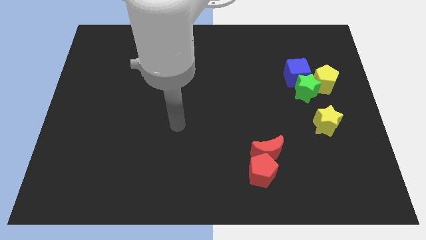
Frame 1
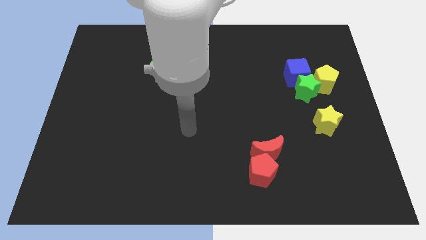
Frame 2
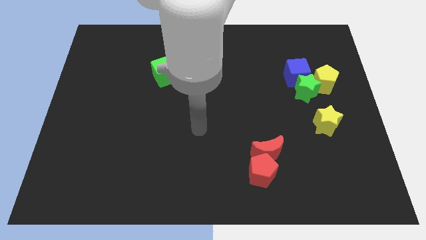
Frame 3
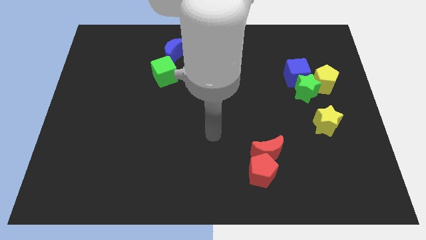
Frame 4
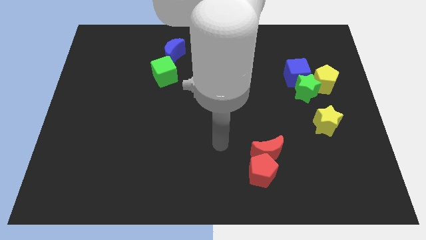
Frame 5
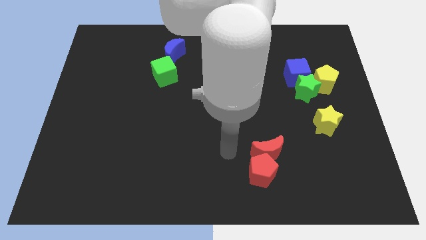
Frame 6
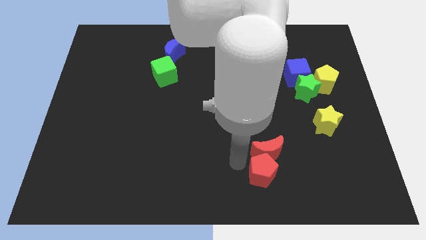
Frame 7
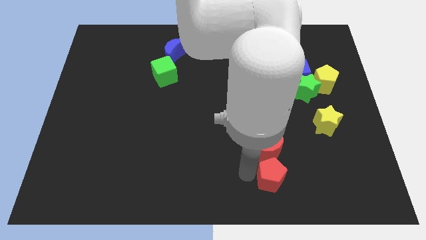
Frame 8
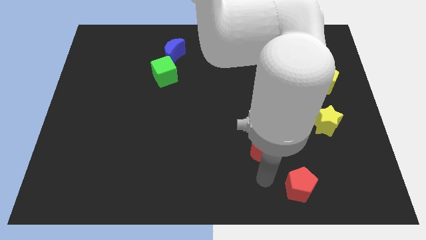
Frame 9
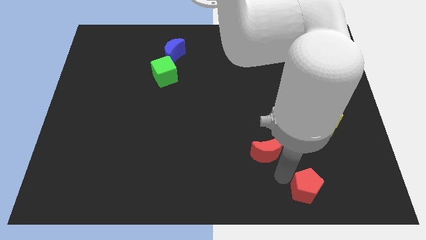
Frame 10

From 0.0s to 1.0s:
separate the red moon from the red pentagon

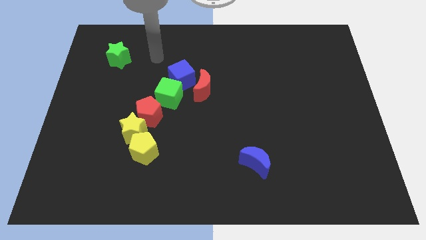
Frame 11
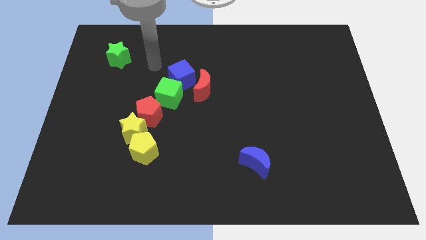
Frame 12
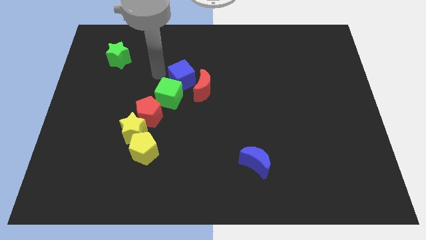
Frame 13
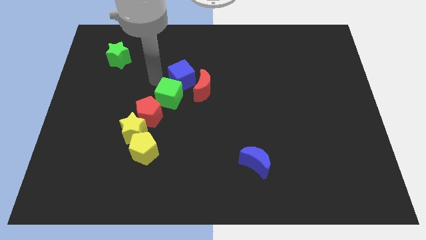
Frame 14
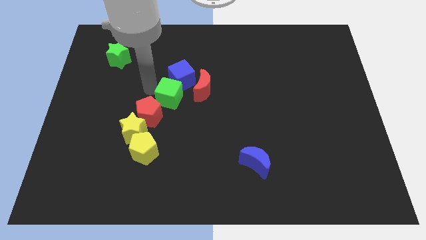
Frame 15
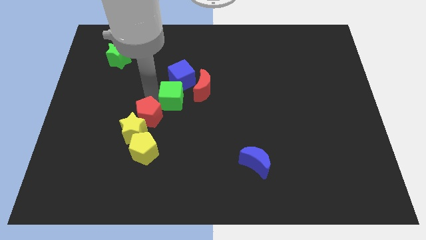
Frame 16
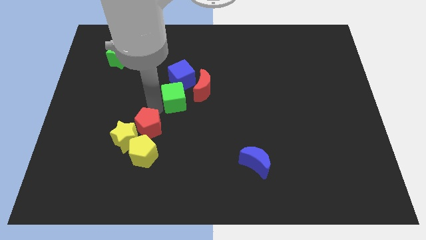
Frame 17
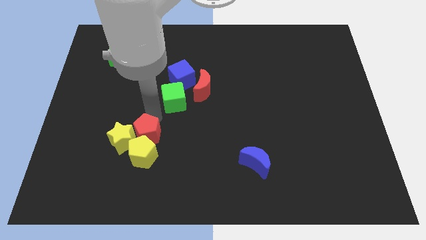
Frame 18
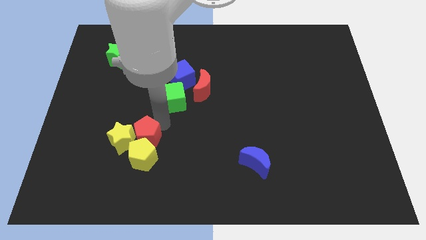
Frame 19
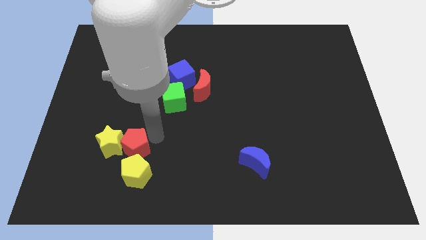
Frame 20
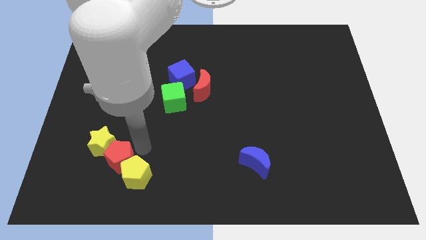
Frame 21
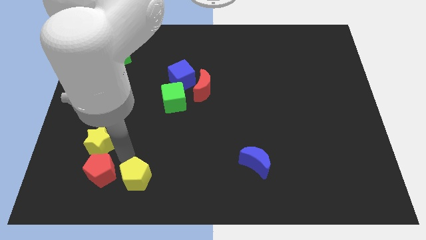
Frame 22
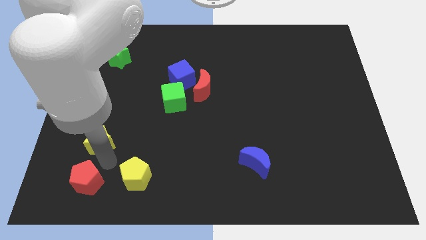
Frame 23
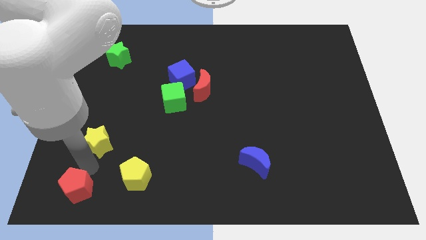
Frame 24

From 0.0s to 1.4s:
separate the yellow star from the red pentagon and yellow pentagon

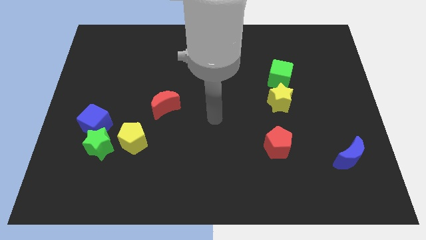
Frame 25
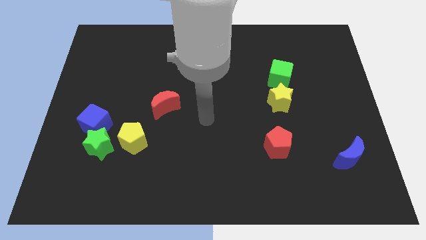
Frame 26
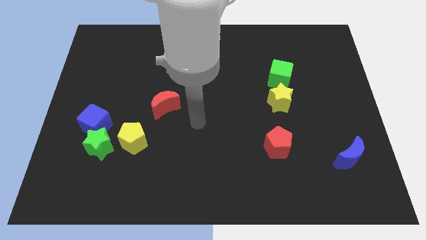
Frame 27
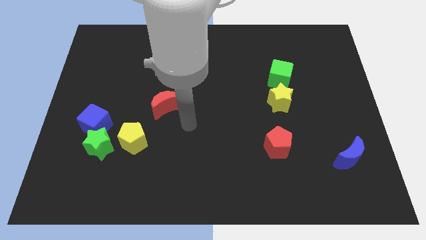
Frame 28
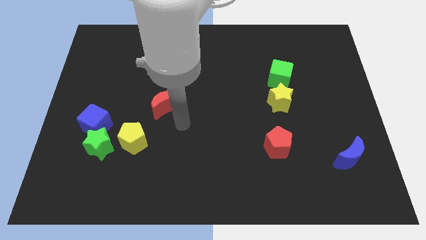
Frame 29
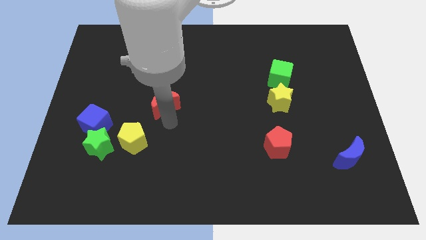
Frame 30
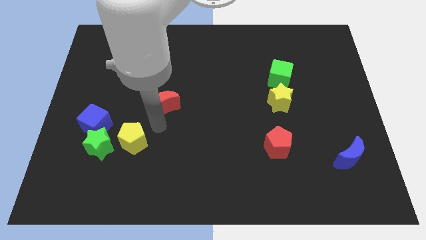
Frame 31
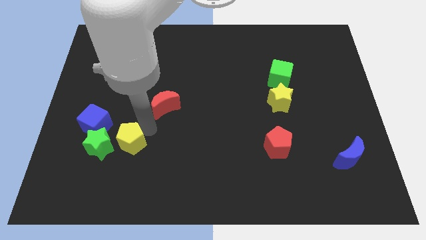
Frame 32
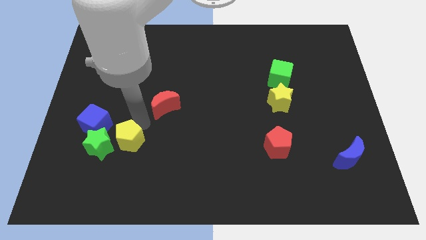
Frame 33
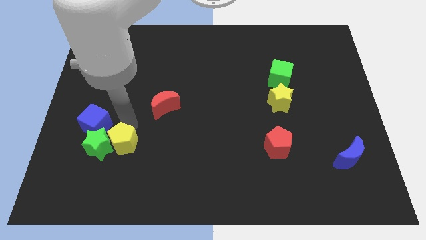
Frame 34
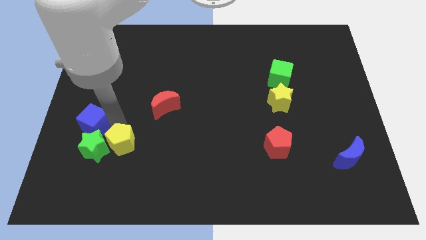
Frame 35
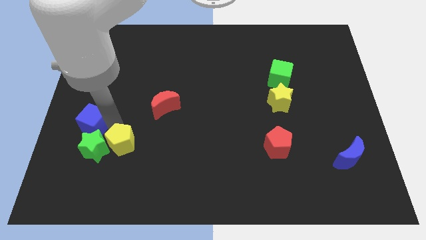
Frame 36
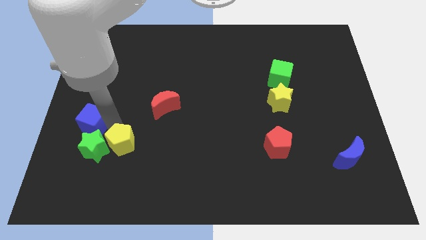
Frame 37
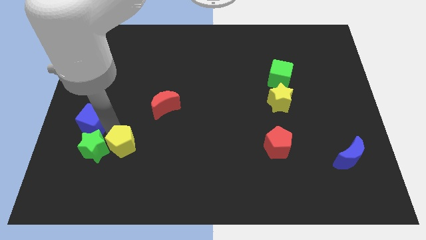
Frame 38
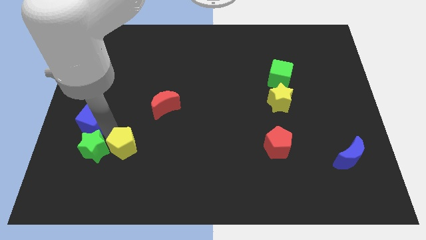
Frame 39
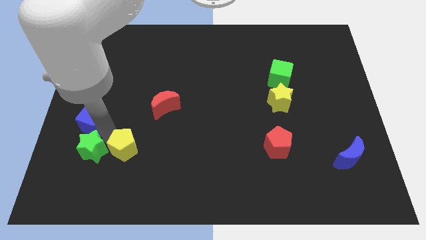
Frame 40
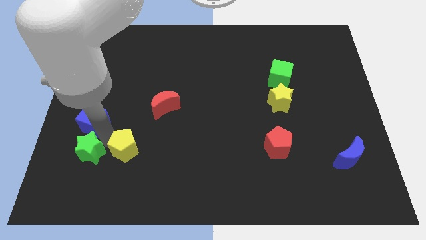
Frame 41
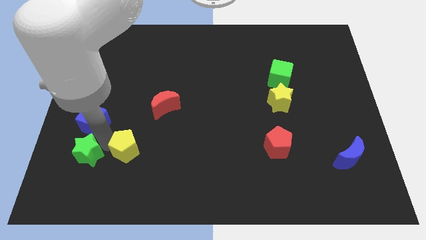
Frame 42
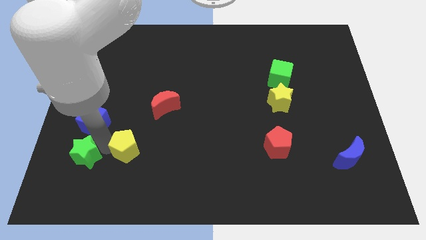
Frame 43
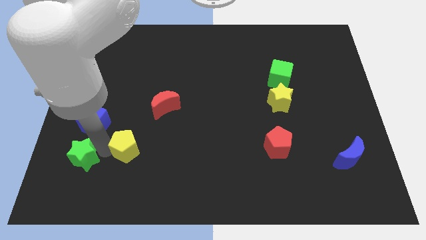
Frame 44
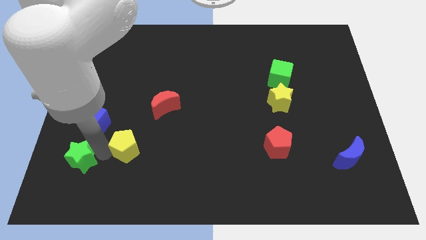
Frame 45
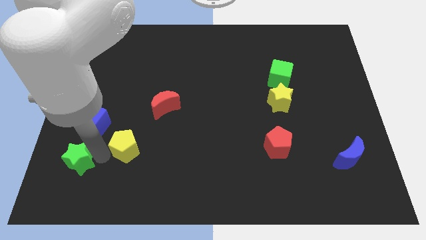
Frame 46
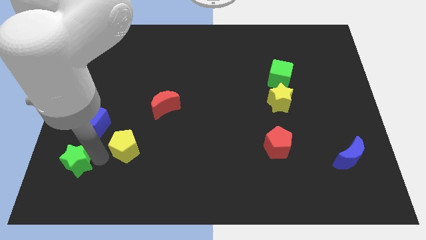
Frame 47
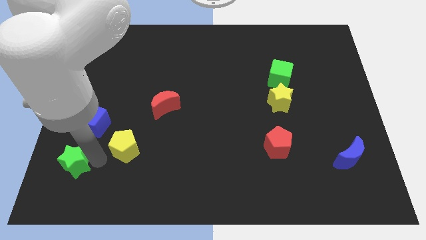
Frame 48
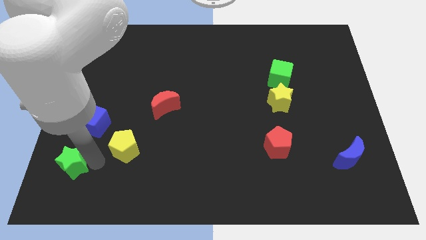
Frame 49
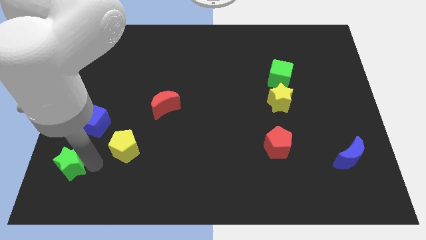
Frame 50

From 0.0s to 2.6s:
pull the green star apart from the blue cube and yellow pentagon

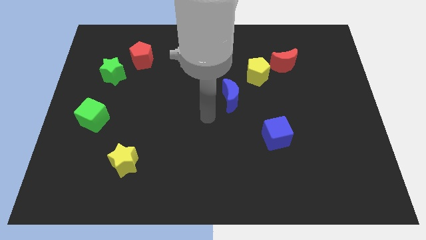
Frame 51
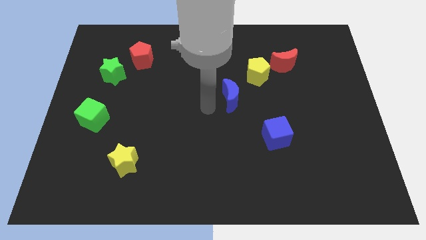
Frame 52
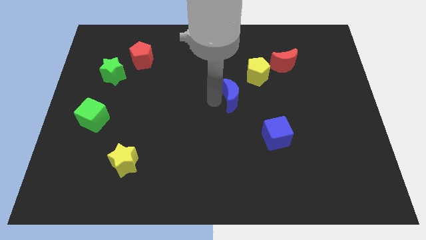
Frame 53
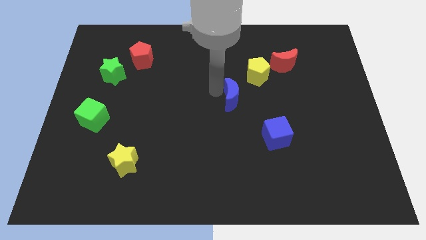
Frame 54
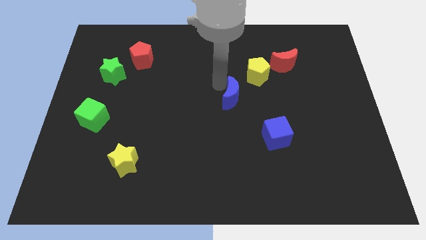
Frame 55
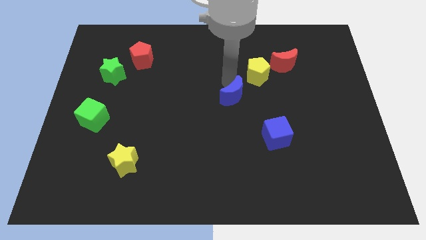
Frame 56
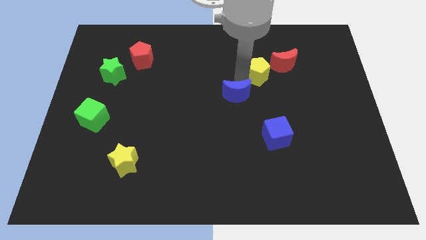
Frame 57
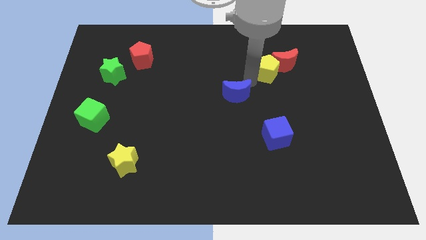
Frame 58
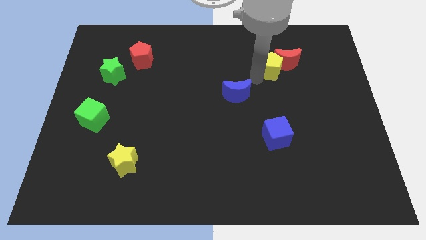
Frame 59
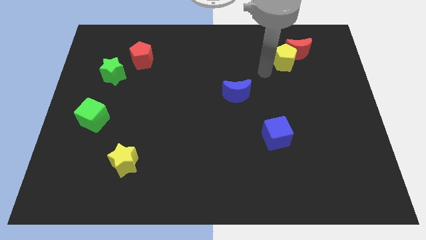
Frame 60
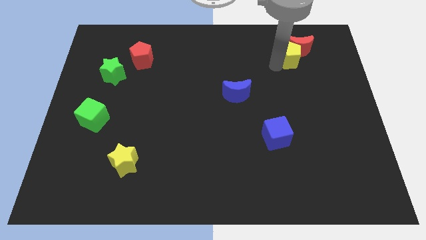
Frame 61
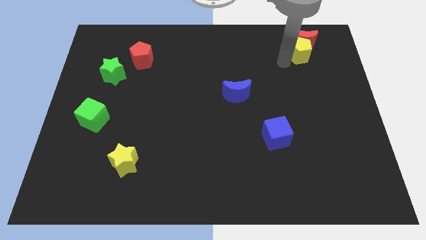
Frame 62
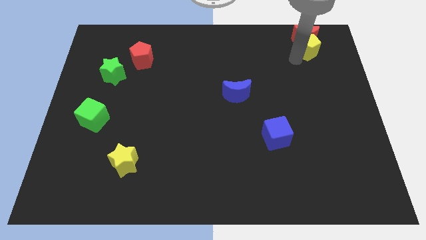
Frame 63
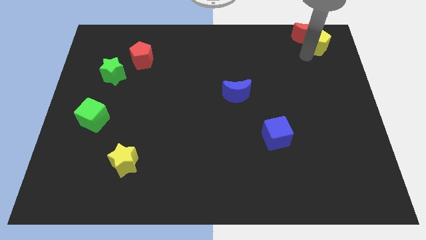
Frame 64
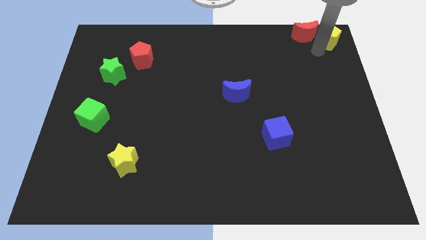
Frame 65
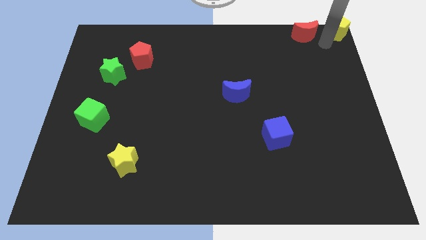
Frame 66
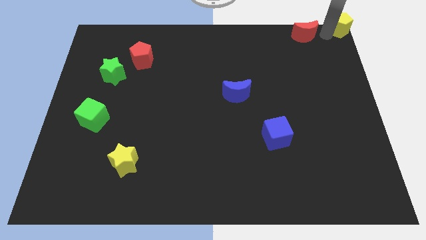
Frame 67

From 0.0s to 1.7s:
separate the red moon from the yellow pentagon

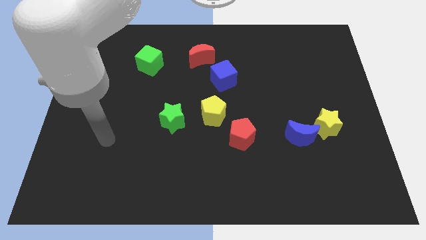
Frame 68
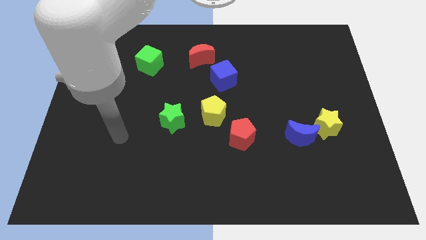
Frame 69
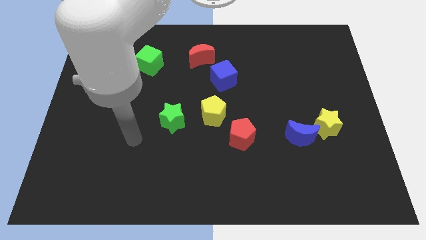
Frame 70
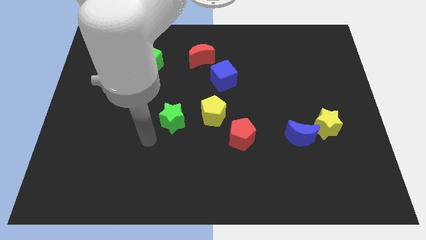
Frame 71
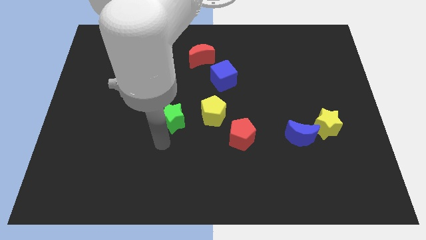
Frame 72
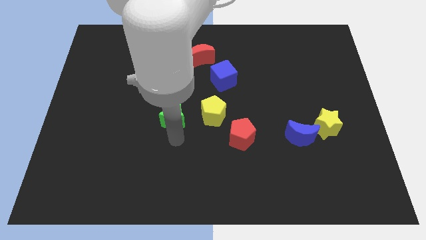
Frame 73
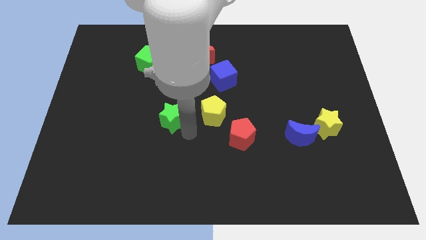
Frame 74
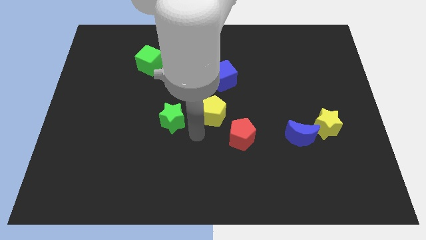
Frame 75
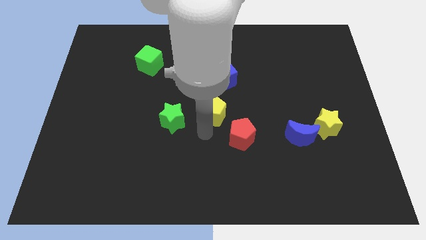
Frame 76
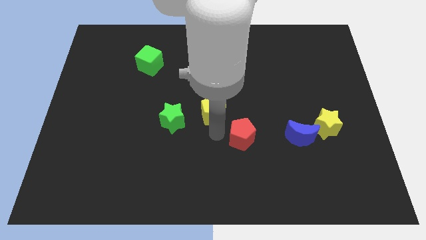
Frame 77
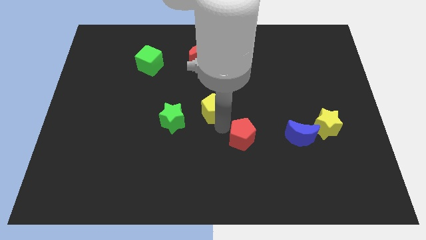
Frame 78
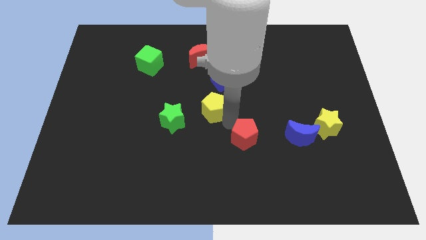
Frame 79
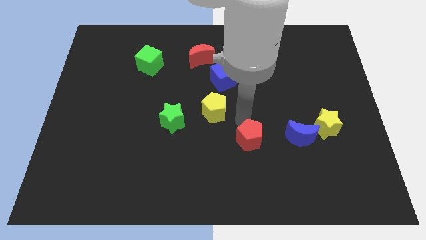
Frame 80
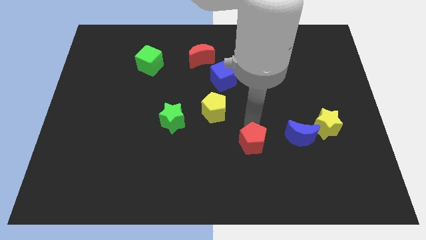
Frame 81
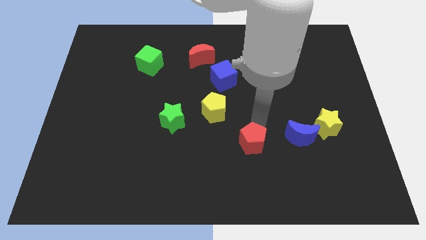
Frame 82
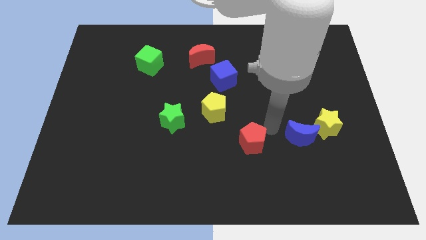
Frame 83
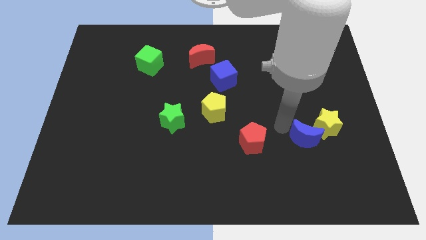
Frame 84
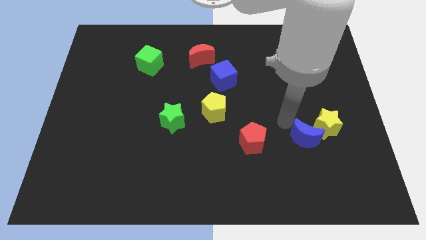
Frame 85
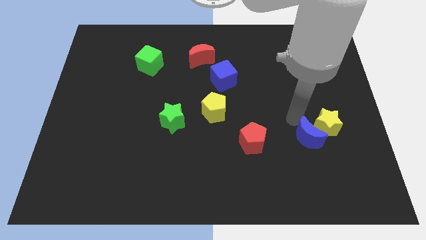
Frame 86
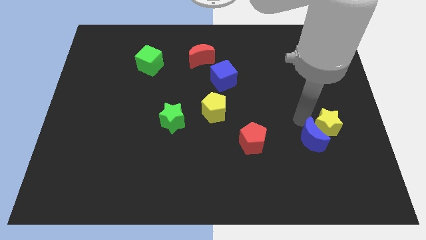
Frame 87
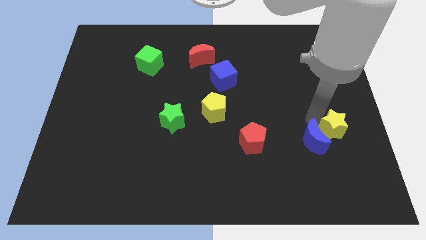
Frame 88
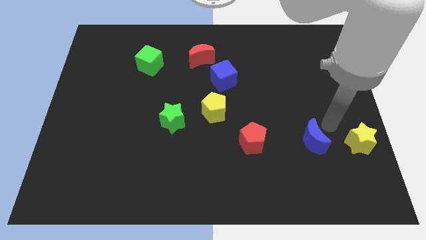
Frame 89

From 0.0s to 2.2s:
pull the blue moon apart from the yellow star

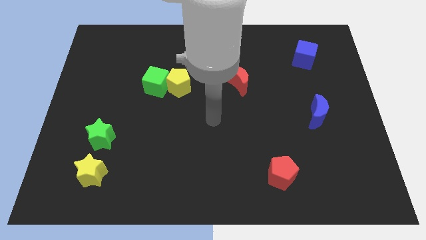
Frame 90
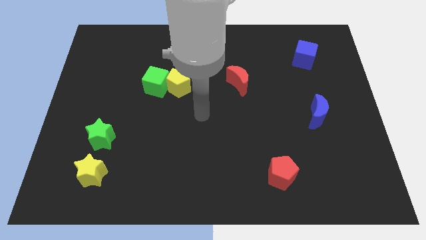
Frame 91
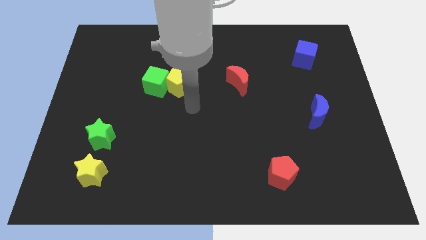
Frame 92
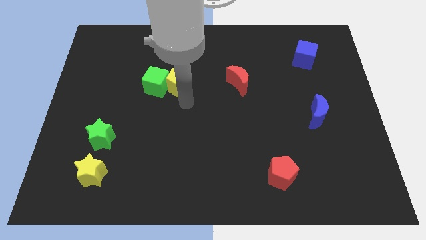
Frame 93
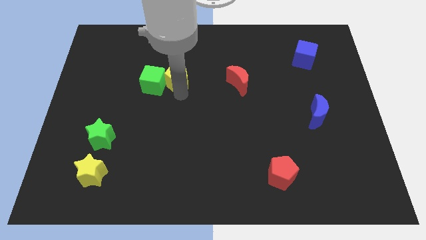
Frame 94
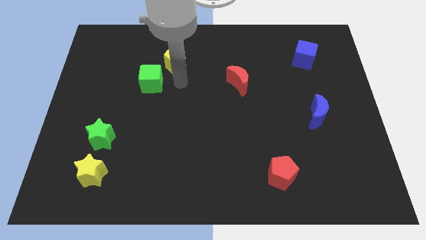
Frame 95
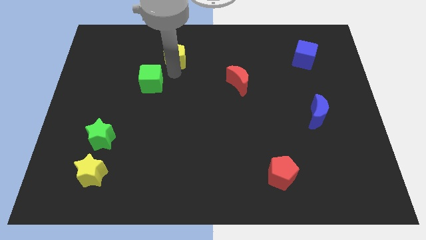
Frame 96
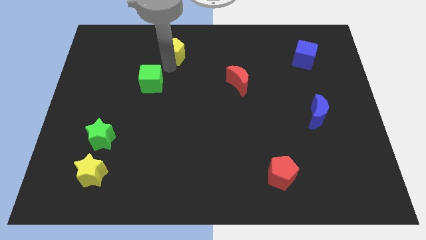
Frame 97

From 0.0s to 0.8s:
pull the green cube apart from the yellow pentagon
